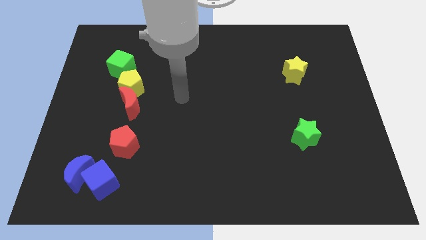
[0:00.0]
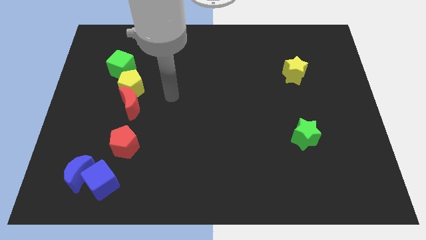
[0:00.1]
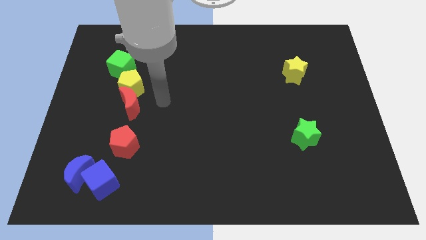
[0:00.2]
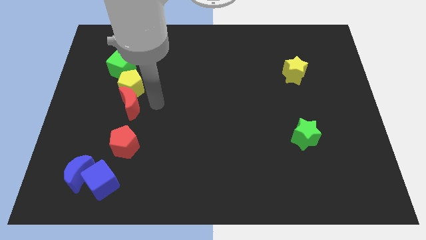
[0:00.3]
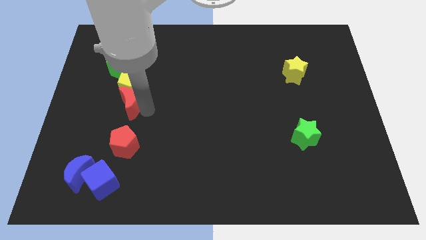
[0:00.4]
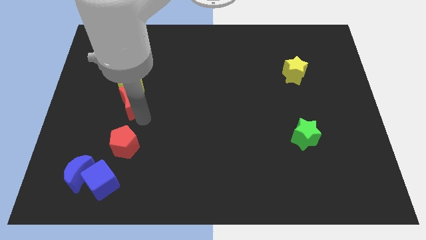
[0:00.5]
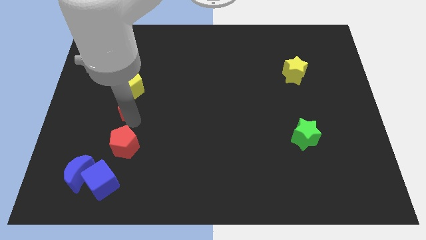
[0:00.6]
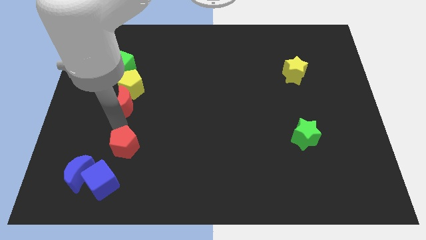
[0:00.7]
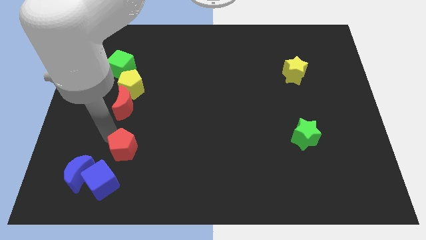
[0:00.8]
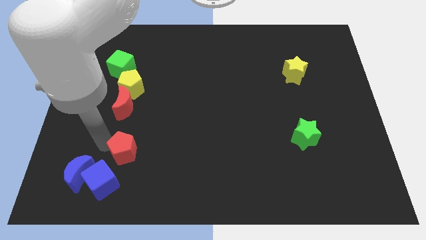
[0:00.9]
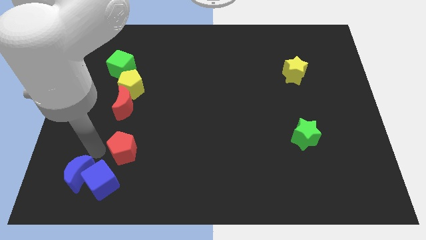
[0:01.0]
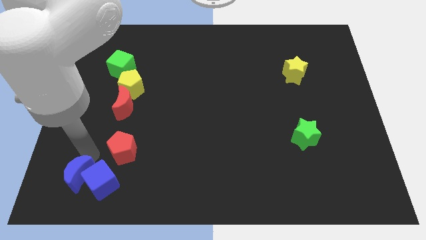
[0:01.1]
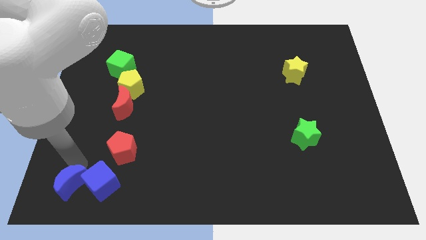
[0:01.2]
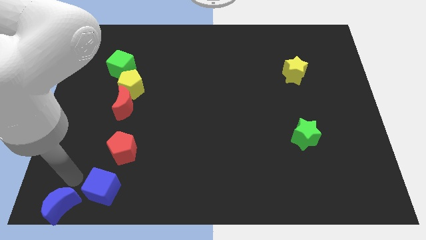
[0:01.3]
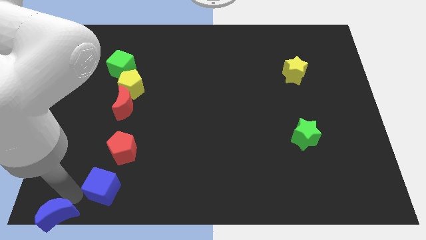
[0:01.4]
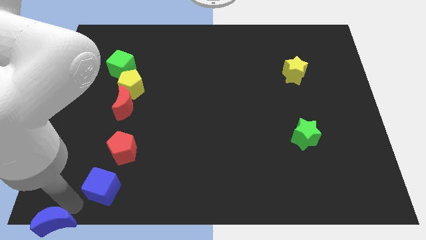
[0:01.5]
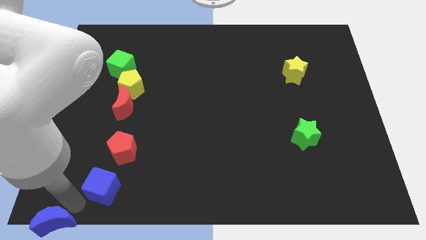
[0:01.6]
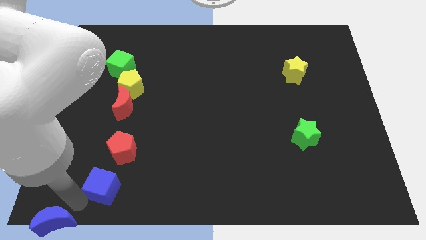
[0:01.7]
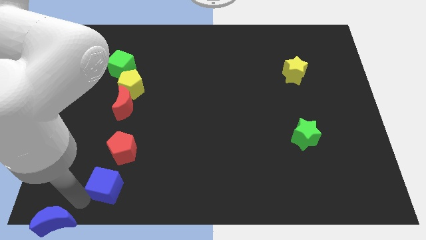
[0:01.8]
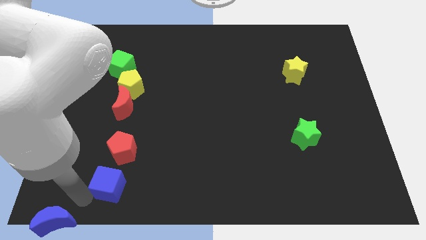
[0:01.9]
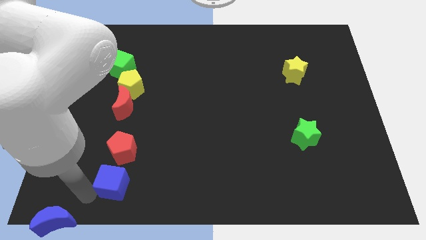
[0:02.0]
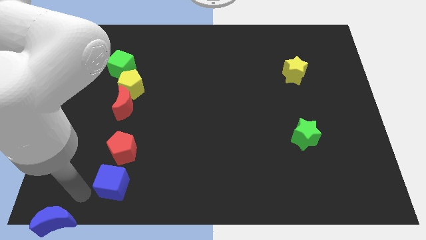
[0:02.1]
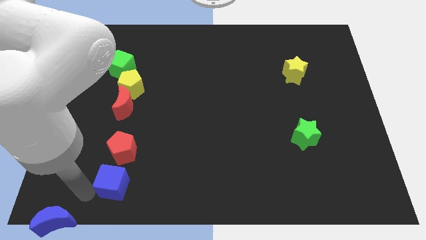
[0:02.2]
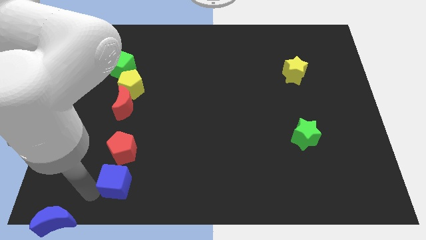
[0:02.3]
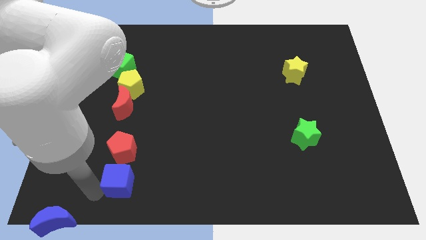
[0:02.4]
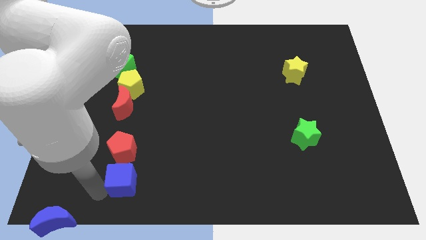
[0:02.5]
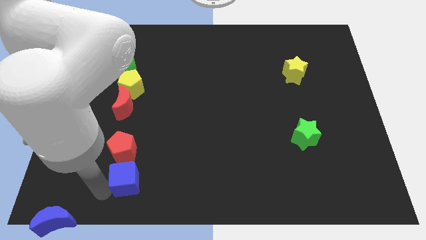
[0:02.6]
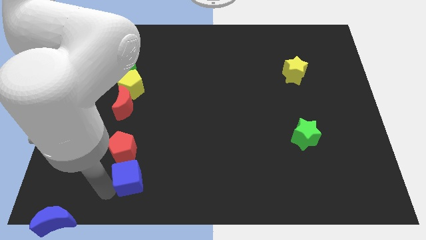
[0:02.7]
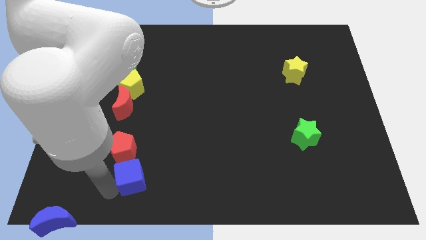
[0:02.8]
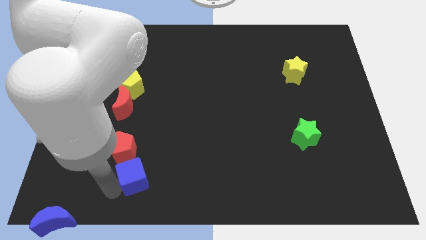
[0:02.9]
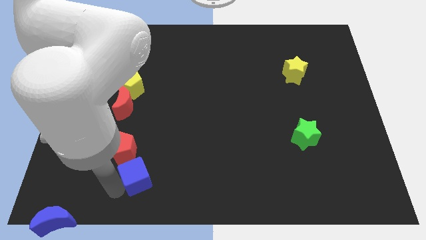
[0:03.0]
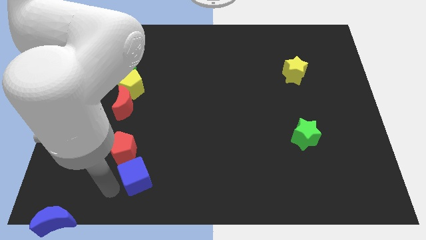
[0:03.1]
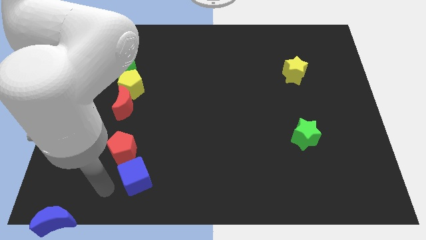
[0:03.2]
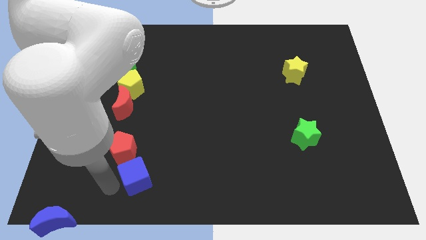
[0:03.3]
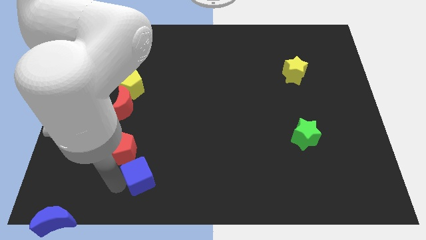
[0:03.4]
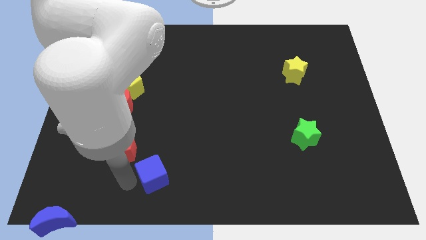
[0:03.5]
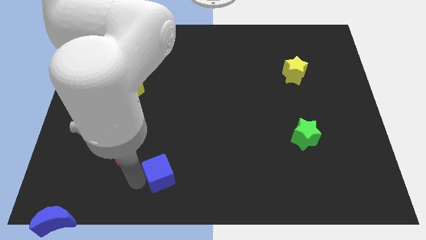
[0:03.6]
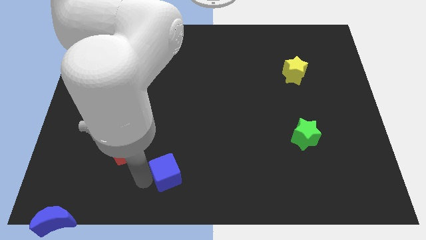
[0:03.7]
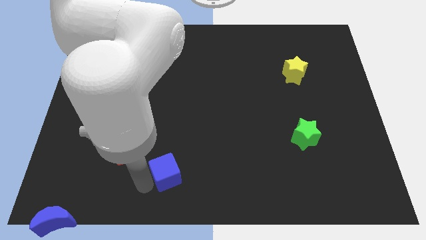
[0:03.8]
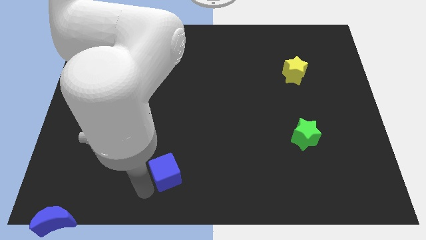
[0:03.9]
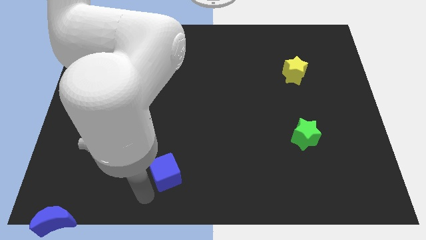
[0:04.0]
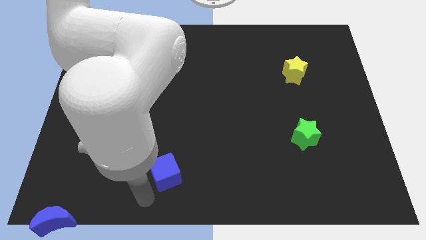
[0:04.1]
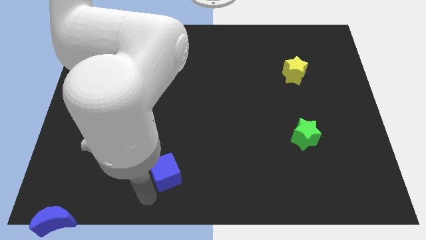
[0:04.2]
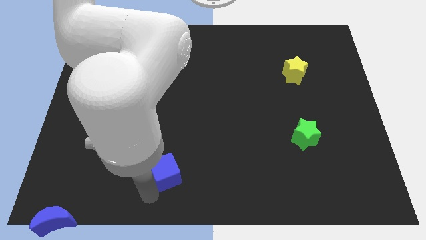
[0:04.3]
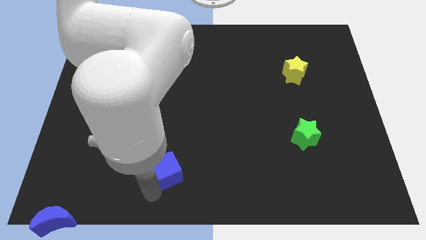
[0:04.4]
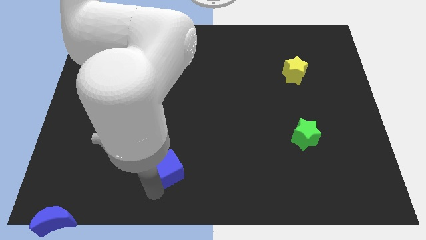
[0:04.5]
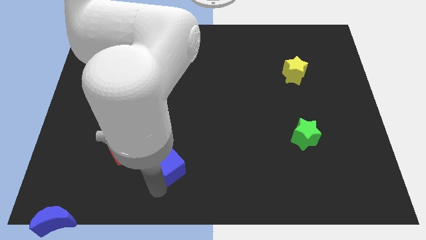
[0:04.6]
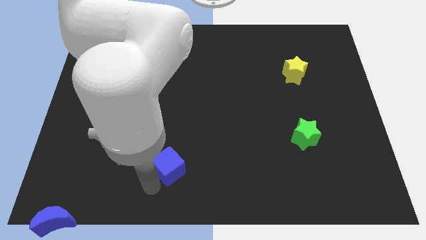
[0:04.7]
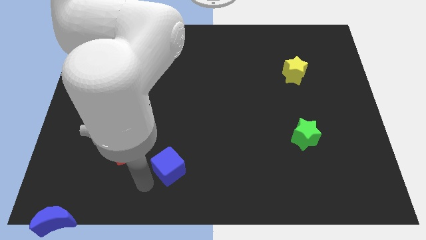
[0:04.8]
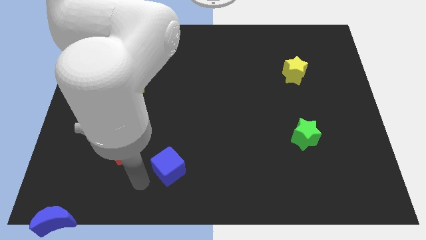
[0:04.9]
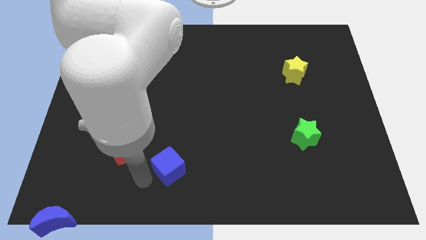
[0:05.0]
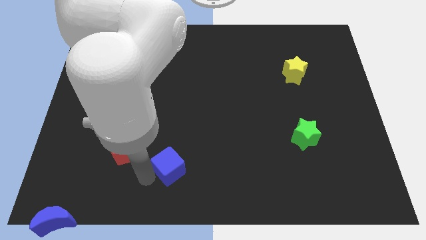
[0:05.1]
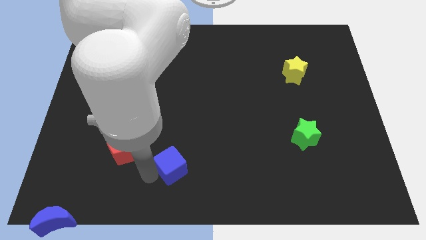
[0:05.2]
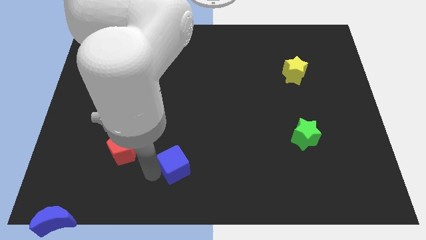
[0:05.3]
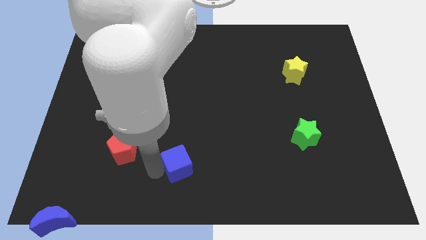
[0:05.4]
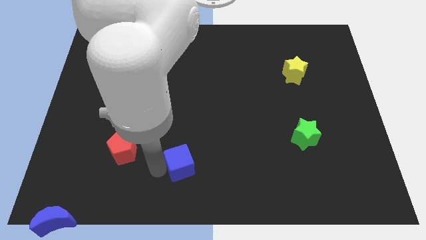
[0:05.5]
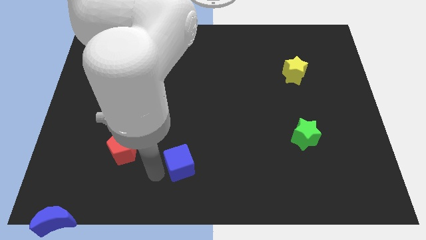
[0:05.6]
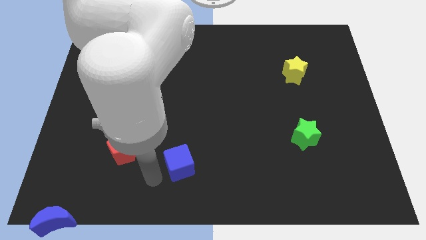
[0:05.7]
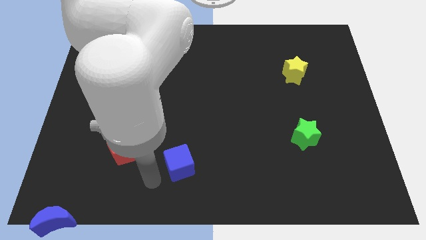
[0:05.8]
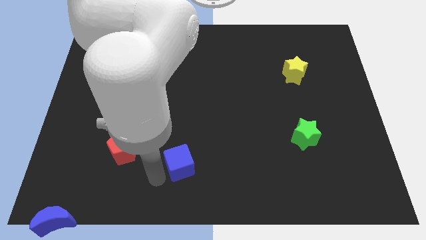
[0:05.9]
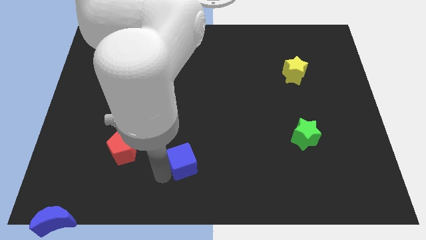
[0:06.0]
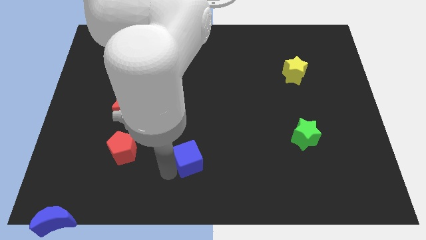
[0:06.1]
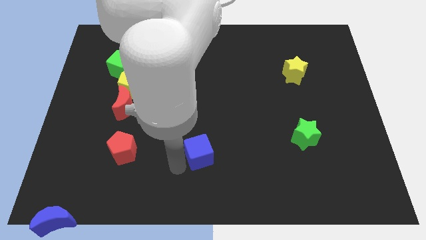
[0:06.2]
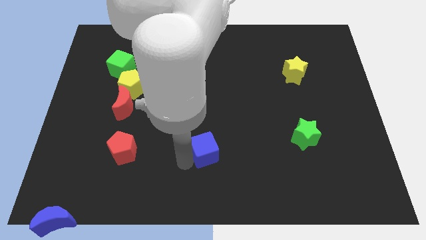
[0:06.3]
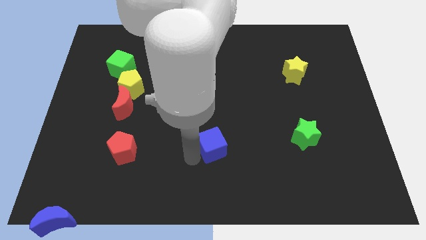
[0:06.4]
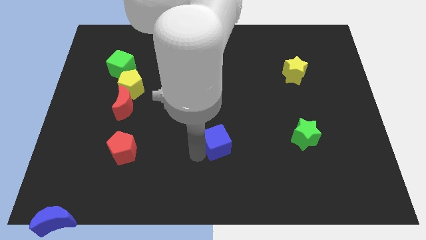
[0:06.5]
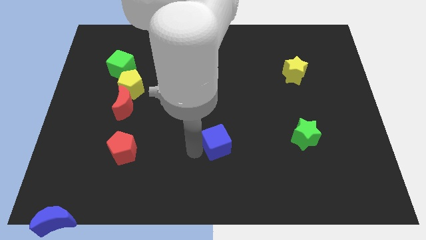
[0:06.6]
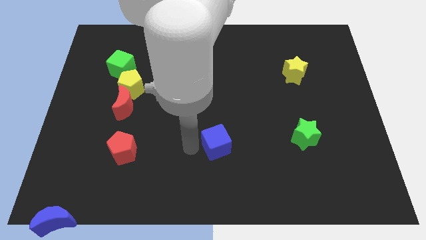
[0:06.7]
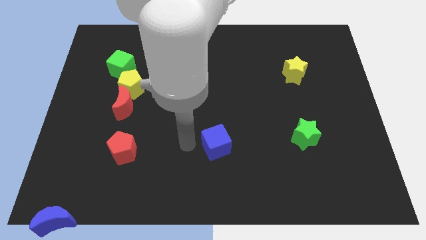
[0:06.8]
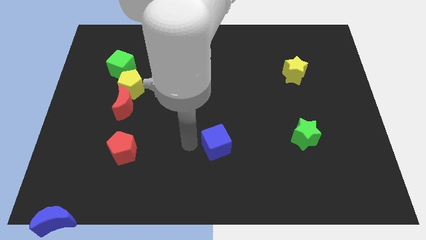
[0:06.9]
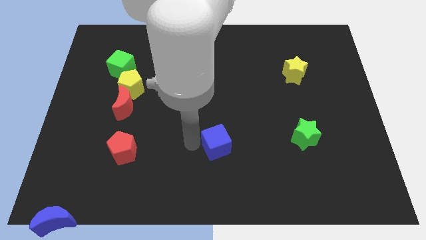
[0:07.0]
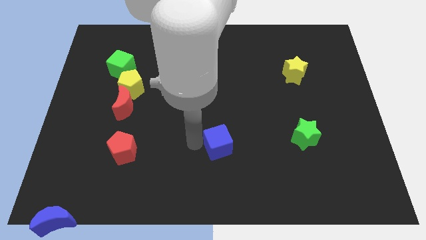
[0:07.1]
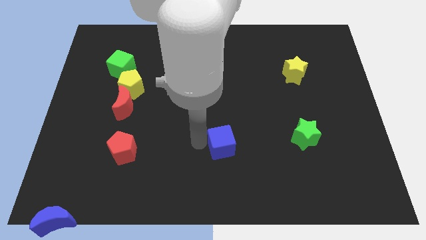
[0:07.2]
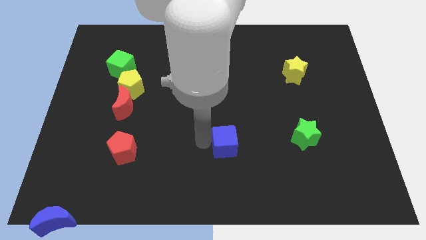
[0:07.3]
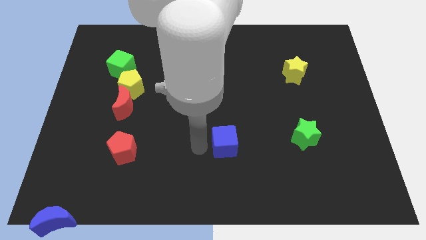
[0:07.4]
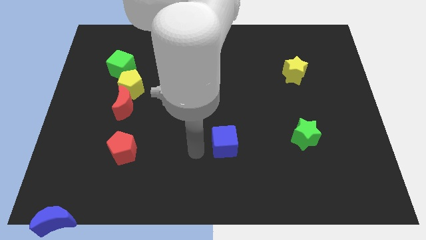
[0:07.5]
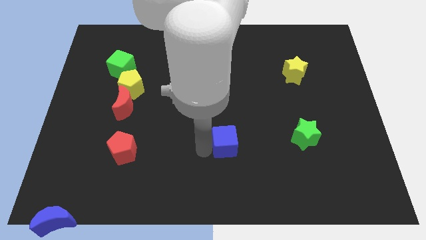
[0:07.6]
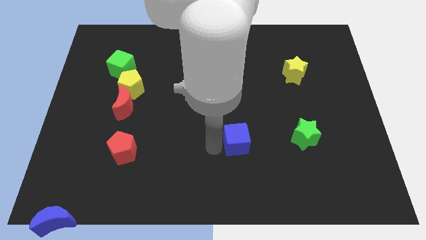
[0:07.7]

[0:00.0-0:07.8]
push the blue cube to the left side of the green star
